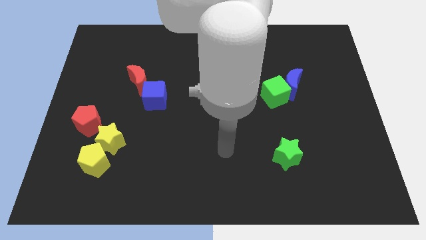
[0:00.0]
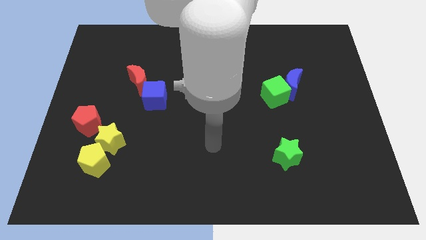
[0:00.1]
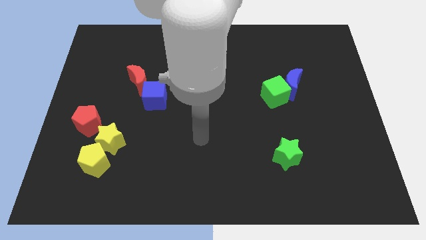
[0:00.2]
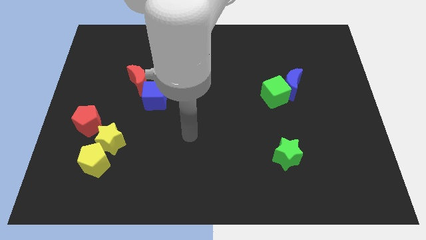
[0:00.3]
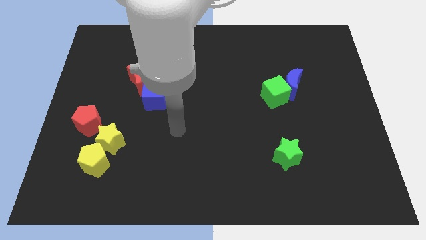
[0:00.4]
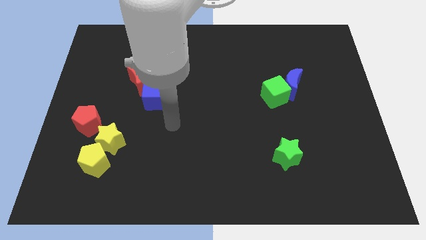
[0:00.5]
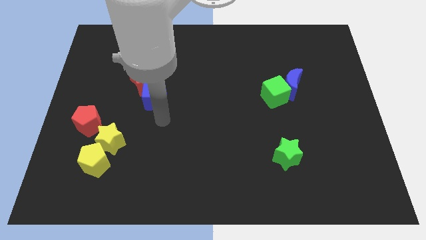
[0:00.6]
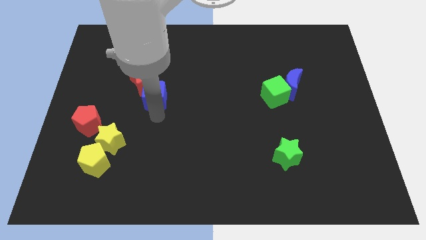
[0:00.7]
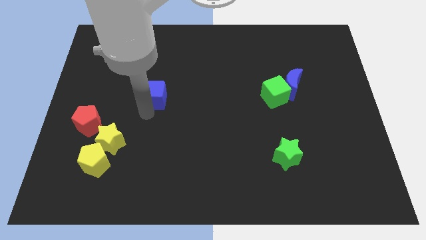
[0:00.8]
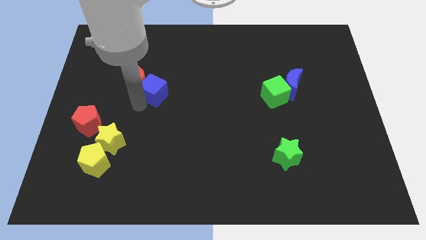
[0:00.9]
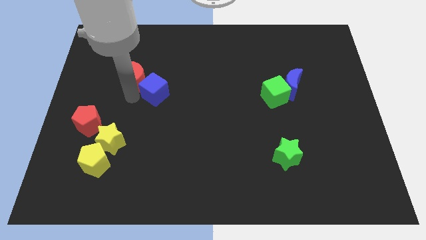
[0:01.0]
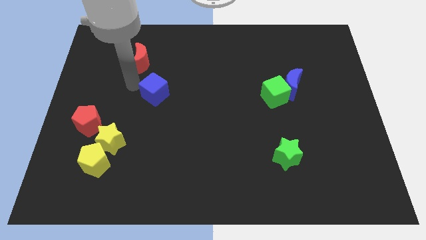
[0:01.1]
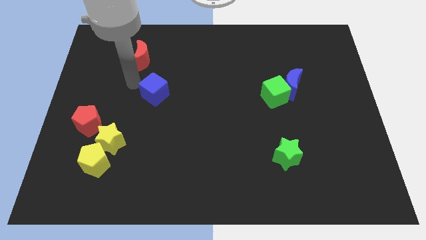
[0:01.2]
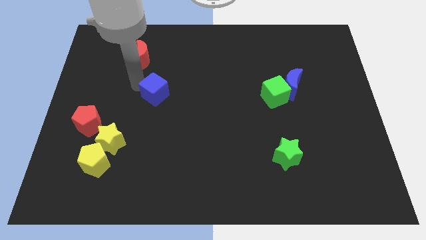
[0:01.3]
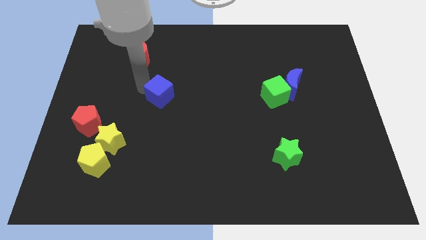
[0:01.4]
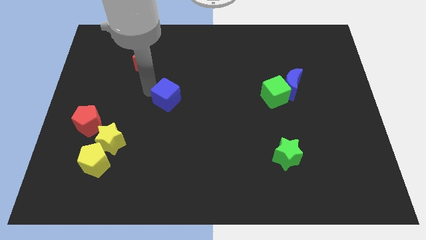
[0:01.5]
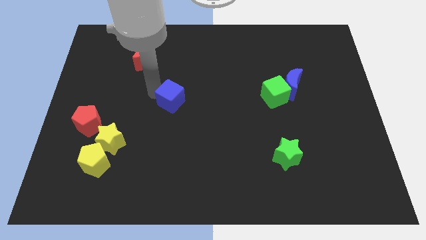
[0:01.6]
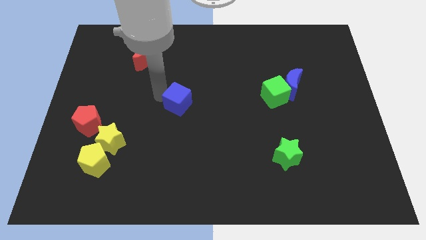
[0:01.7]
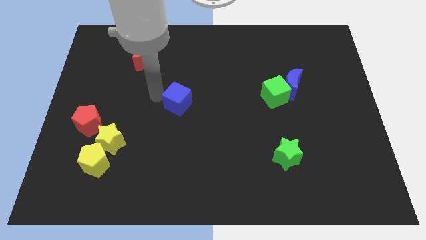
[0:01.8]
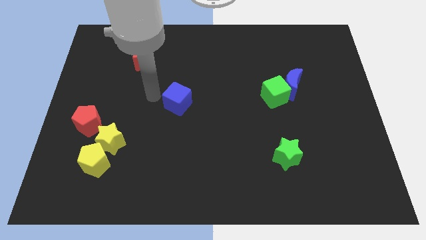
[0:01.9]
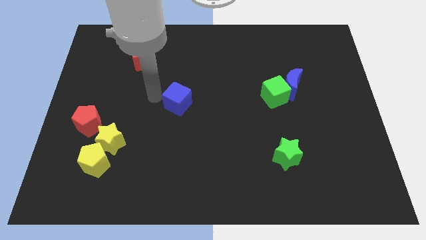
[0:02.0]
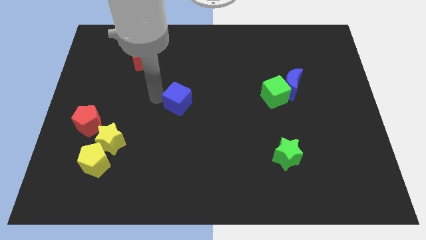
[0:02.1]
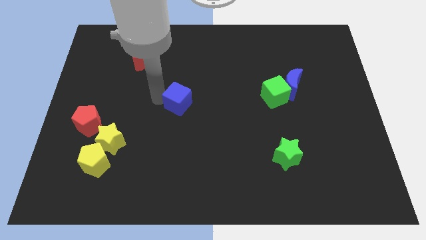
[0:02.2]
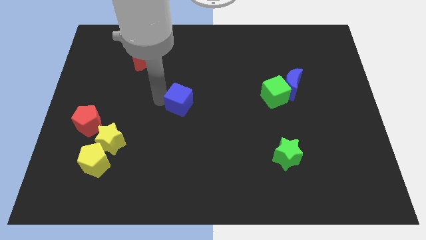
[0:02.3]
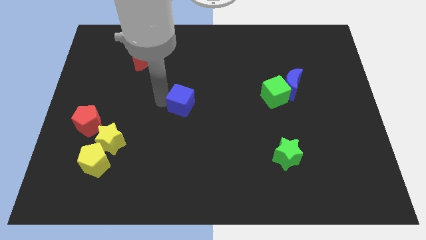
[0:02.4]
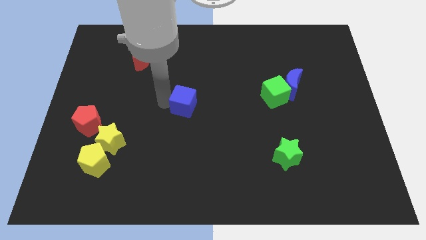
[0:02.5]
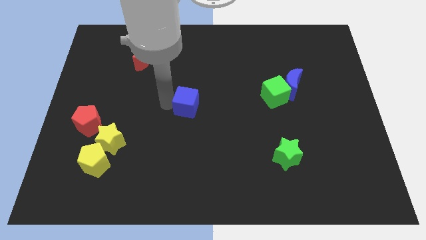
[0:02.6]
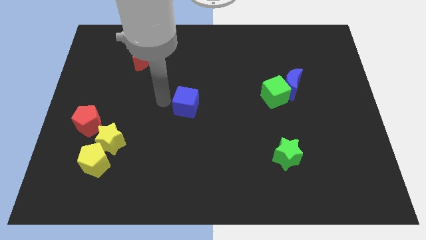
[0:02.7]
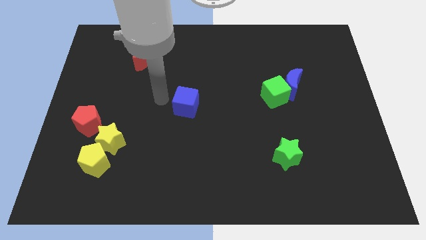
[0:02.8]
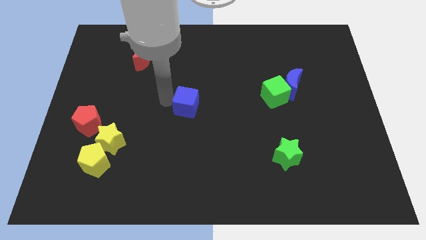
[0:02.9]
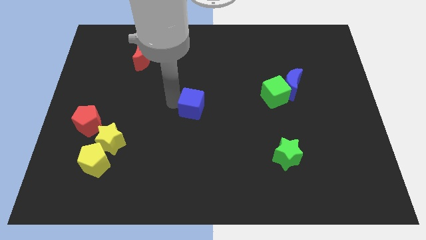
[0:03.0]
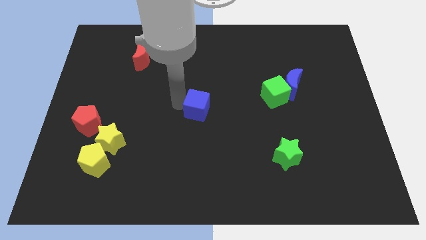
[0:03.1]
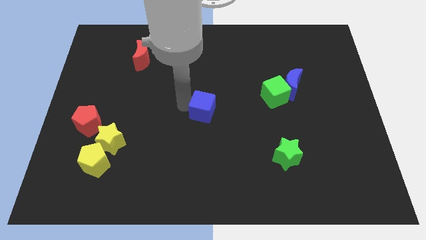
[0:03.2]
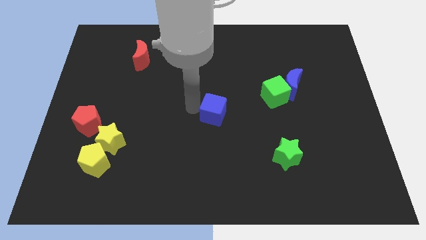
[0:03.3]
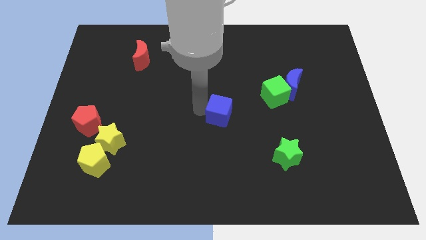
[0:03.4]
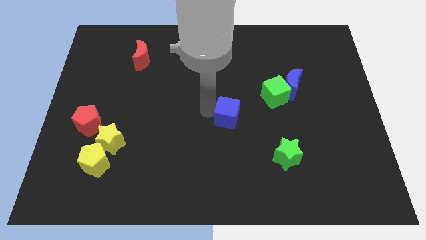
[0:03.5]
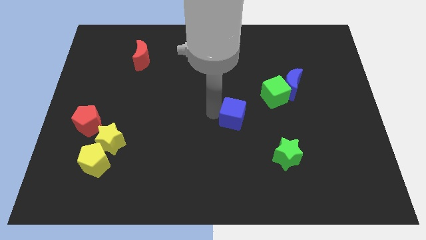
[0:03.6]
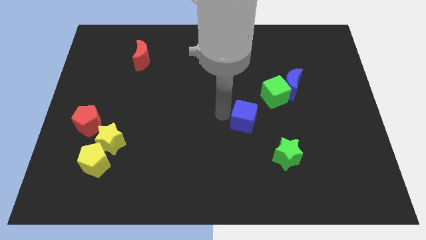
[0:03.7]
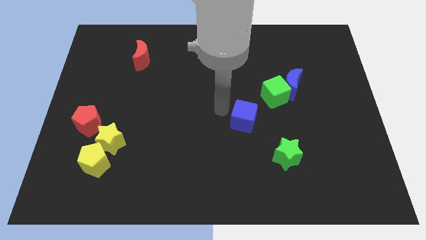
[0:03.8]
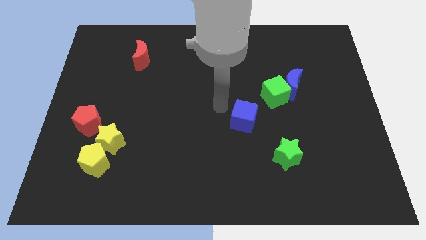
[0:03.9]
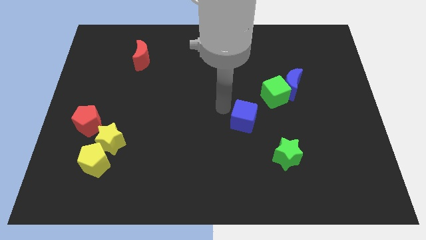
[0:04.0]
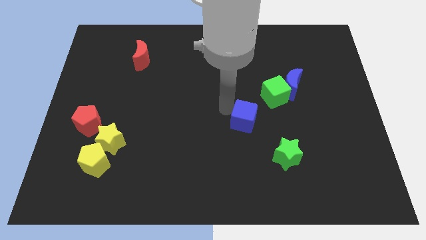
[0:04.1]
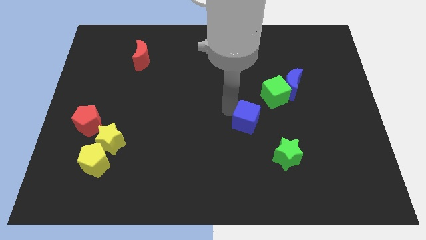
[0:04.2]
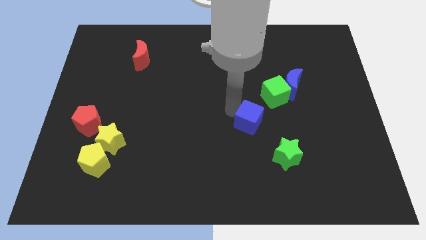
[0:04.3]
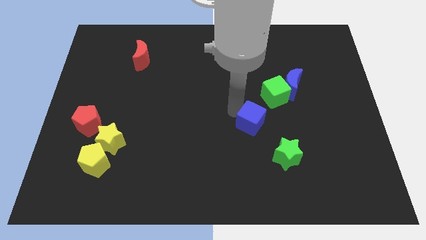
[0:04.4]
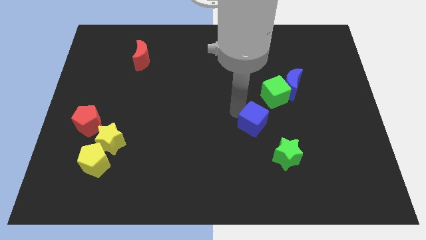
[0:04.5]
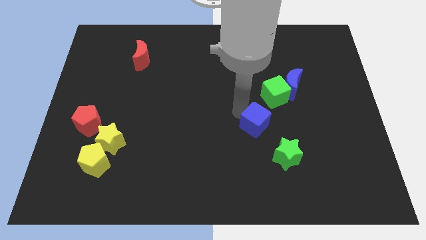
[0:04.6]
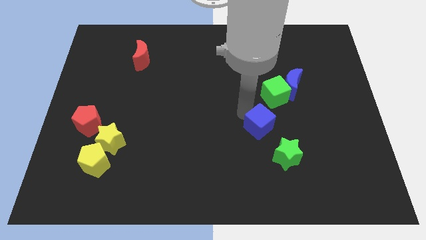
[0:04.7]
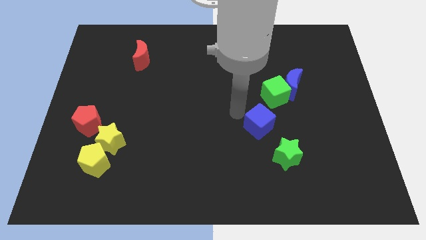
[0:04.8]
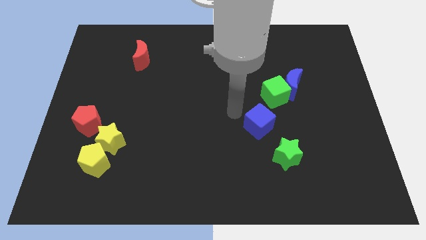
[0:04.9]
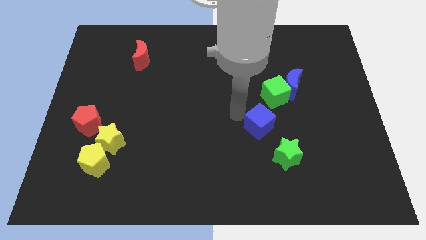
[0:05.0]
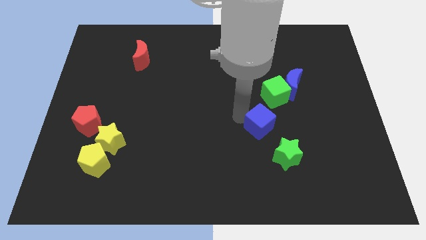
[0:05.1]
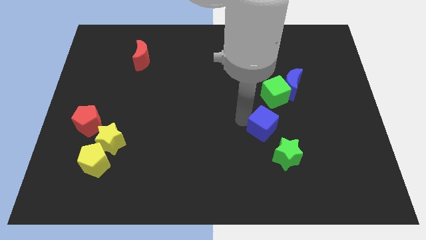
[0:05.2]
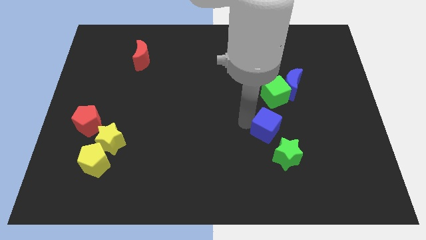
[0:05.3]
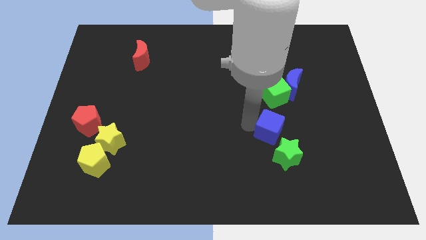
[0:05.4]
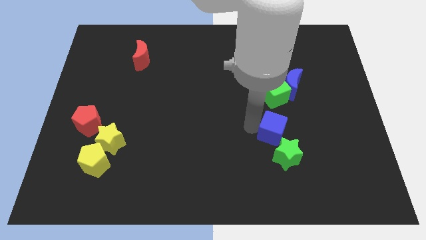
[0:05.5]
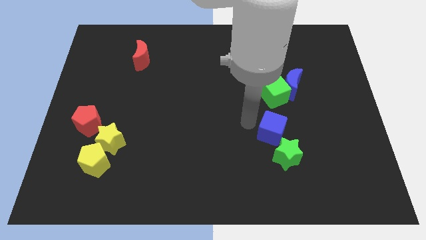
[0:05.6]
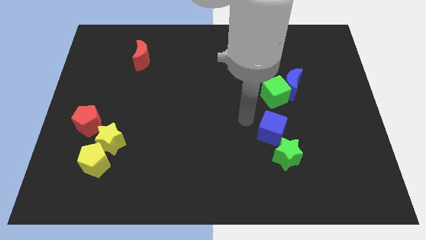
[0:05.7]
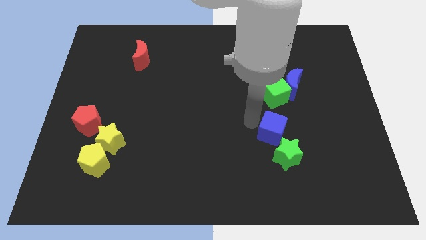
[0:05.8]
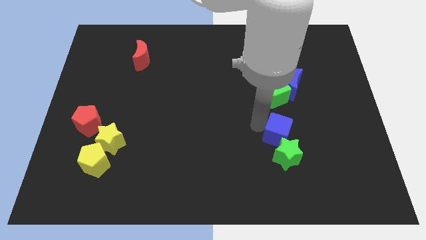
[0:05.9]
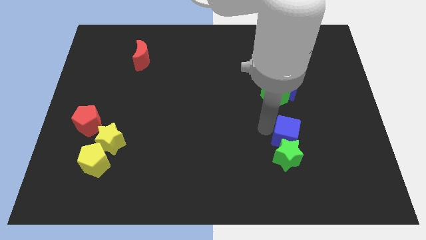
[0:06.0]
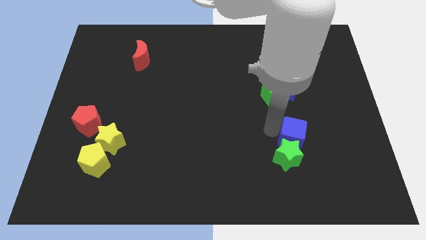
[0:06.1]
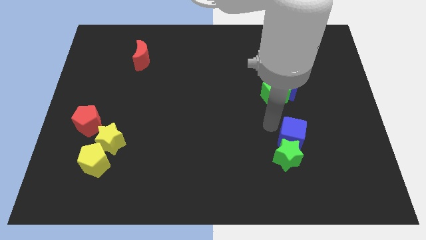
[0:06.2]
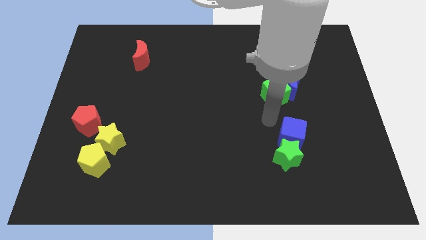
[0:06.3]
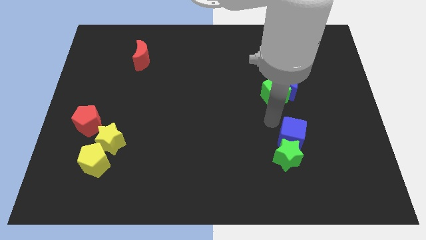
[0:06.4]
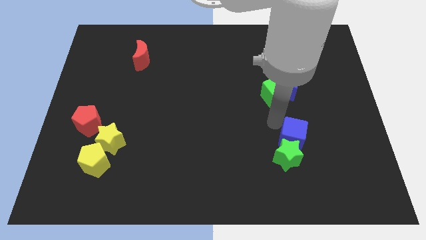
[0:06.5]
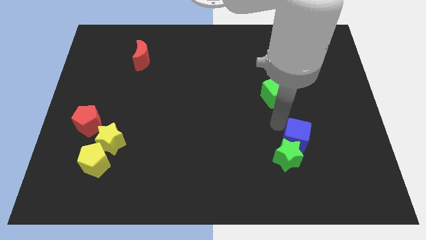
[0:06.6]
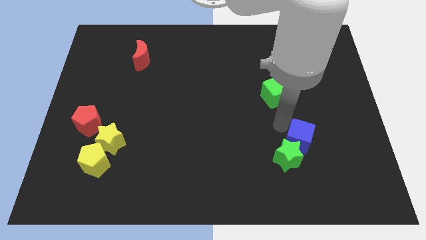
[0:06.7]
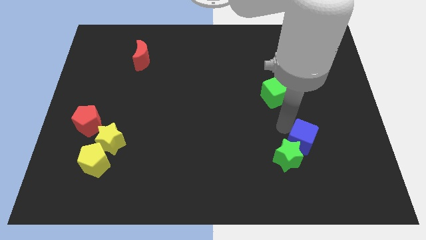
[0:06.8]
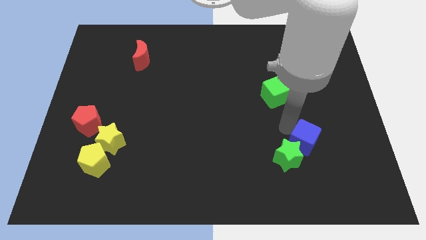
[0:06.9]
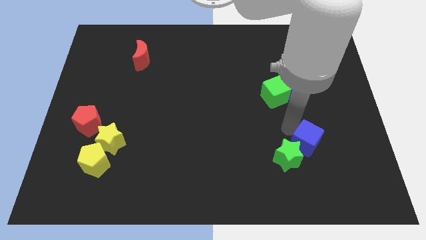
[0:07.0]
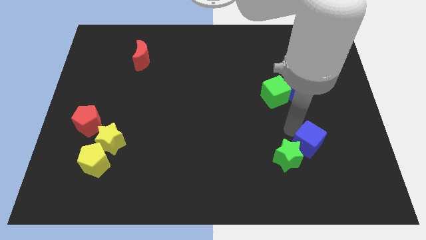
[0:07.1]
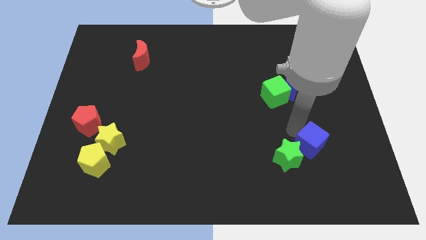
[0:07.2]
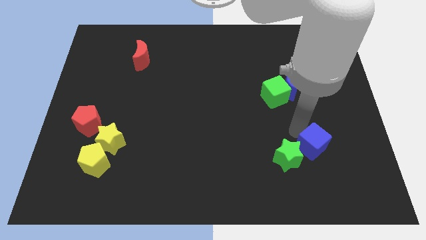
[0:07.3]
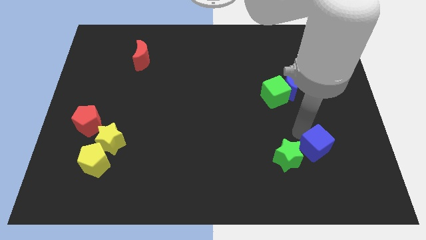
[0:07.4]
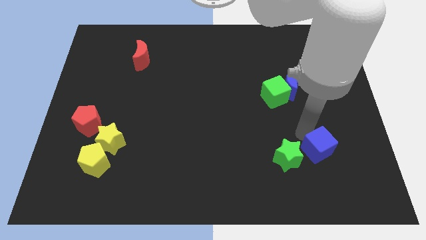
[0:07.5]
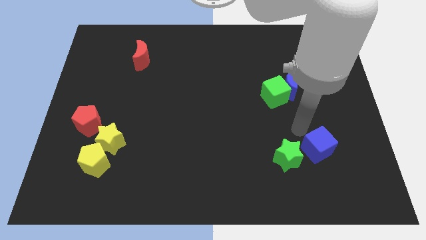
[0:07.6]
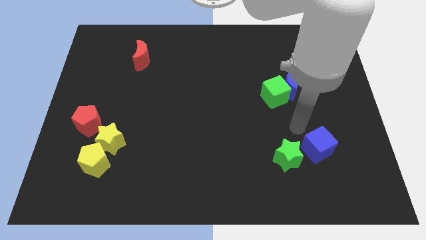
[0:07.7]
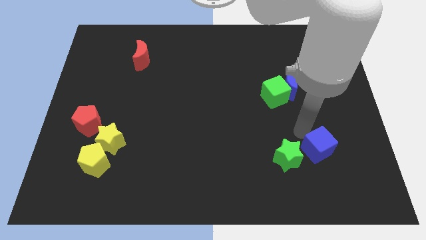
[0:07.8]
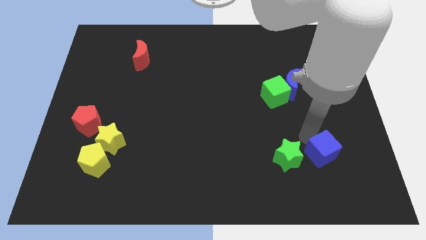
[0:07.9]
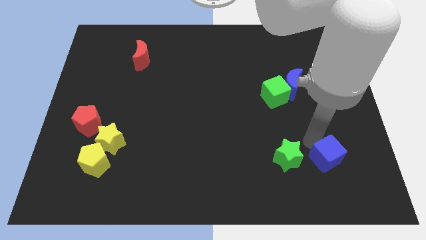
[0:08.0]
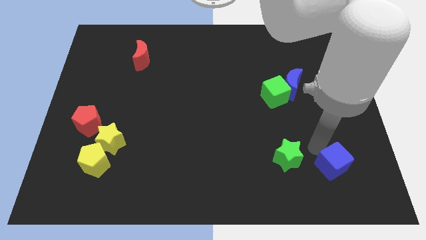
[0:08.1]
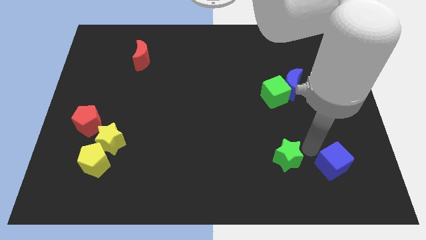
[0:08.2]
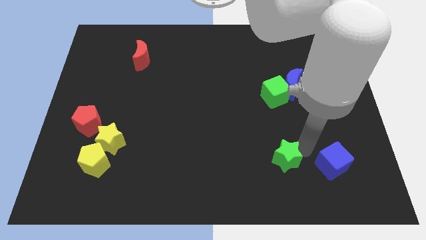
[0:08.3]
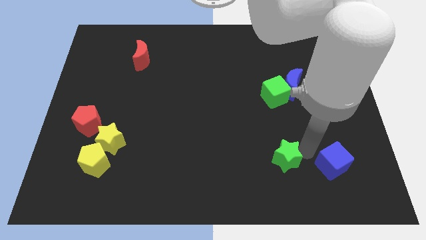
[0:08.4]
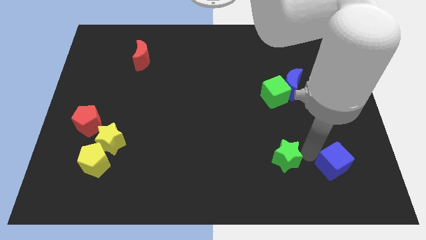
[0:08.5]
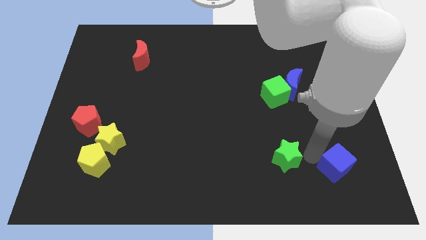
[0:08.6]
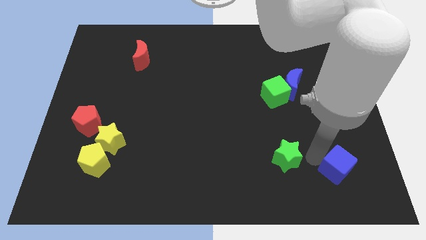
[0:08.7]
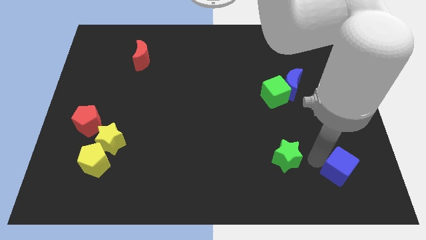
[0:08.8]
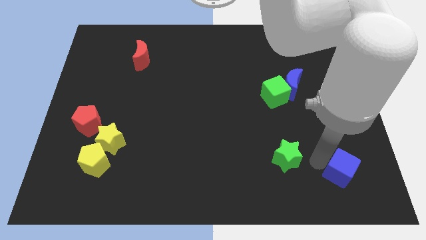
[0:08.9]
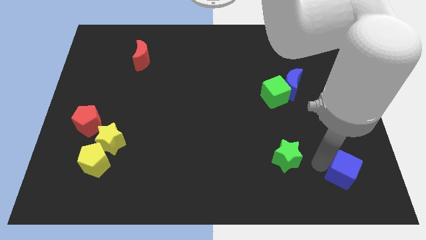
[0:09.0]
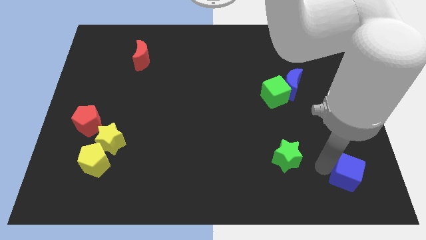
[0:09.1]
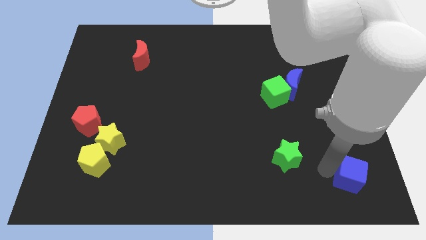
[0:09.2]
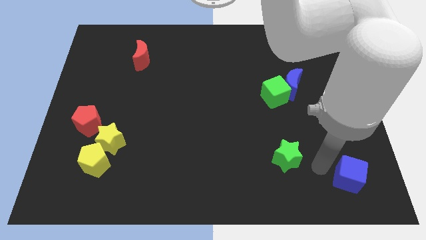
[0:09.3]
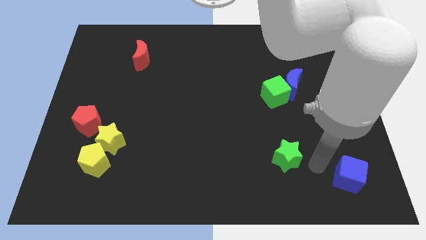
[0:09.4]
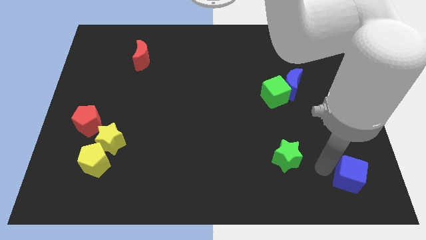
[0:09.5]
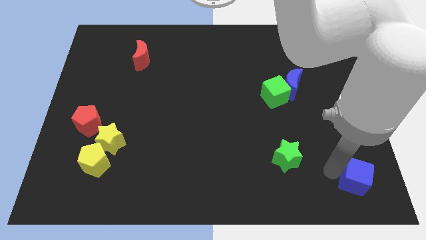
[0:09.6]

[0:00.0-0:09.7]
move the blue cube to the bottom right of the board
